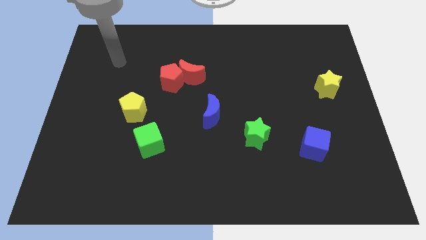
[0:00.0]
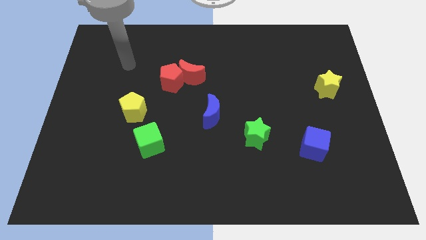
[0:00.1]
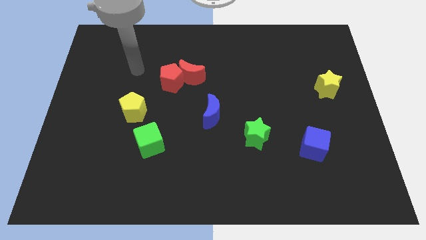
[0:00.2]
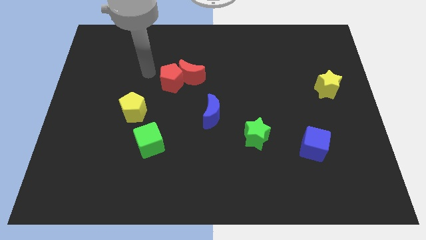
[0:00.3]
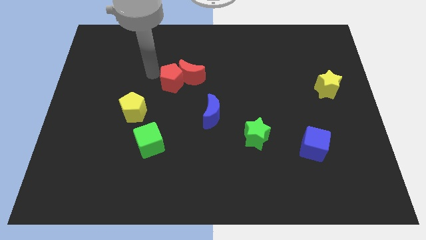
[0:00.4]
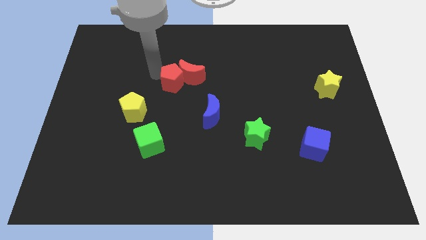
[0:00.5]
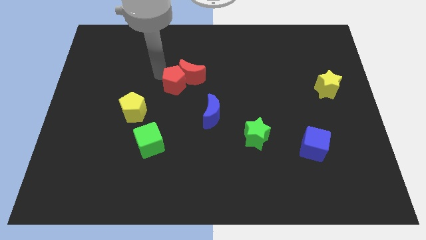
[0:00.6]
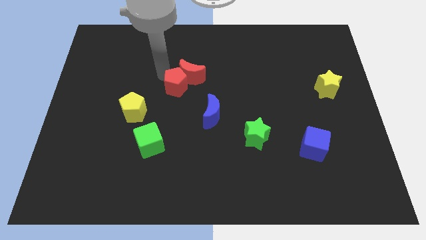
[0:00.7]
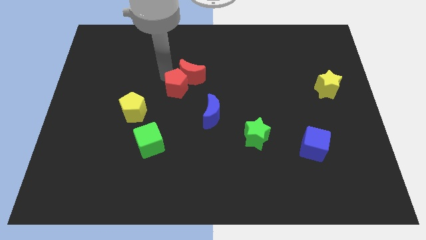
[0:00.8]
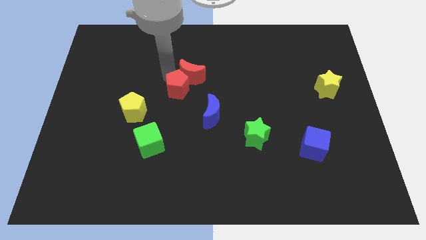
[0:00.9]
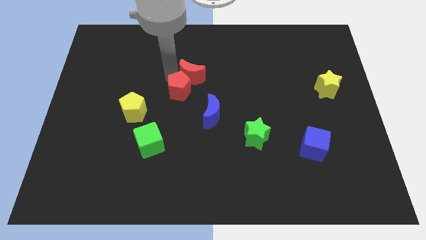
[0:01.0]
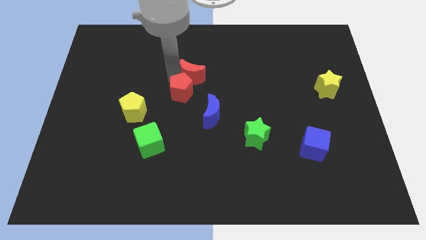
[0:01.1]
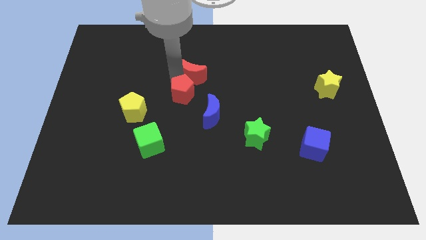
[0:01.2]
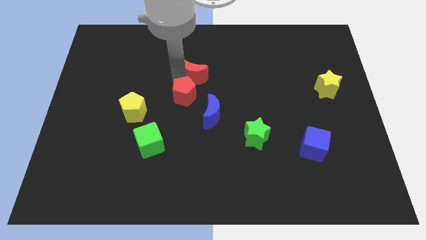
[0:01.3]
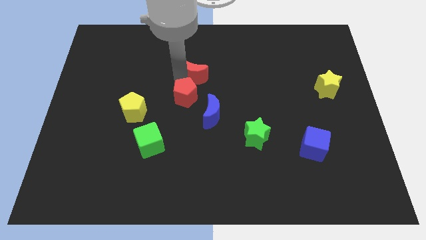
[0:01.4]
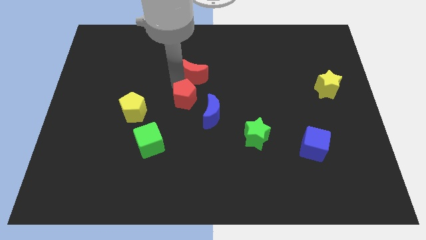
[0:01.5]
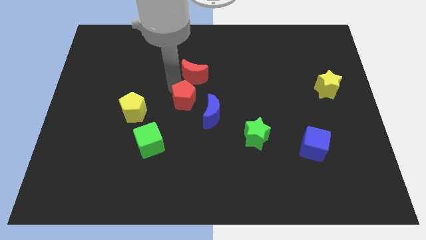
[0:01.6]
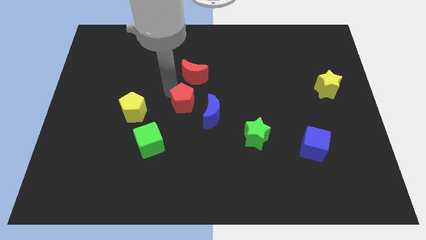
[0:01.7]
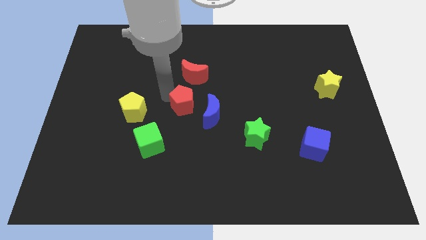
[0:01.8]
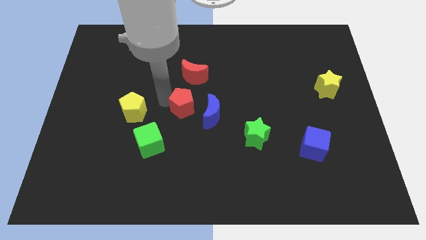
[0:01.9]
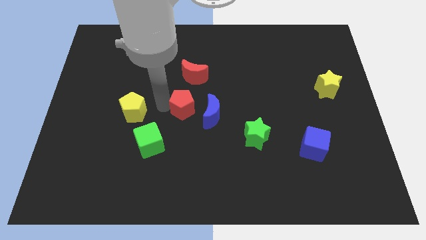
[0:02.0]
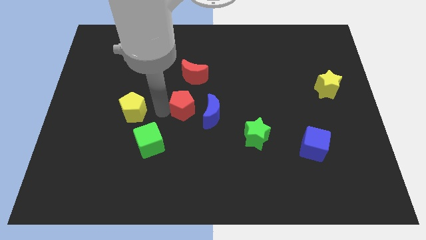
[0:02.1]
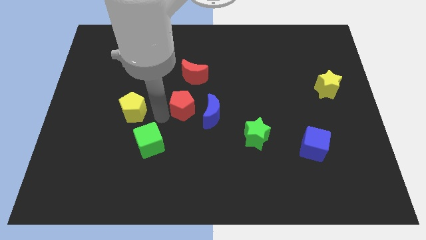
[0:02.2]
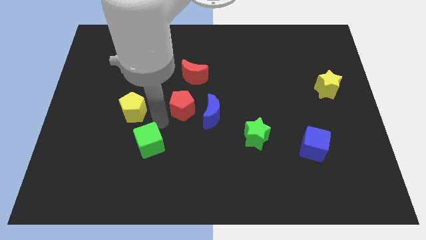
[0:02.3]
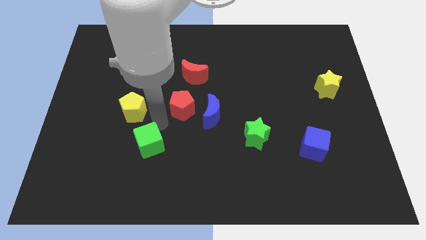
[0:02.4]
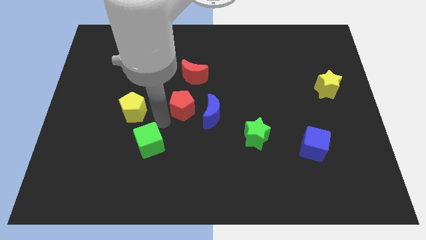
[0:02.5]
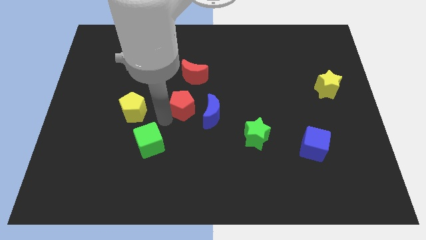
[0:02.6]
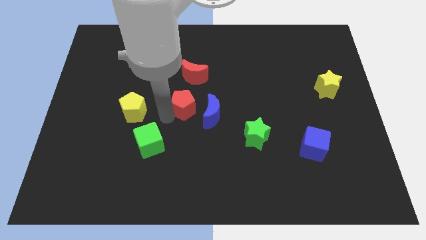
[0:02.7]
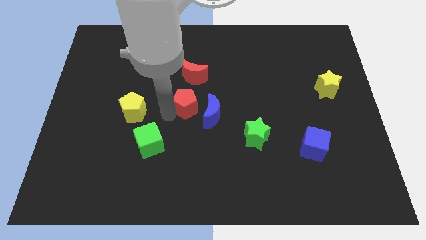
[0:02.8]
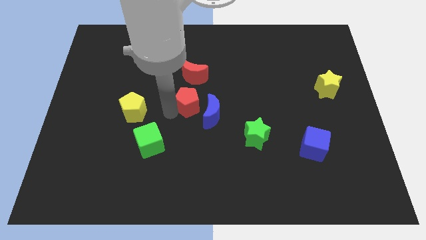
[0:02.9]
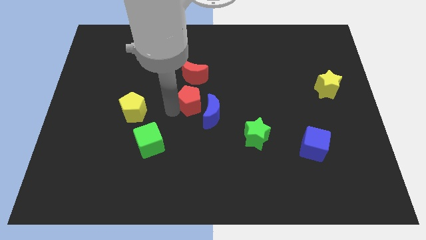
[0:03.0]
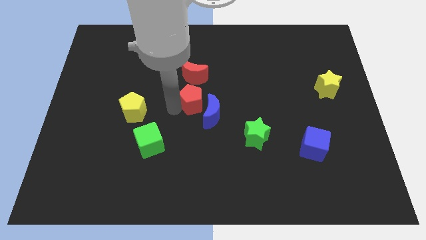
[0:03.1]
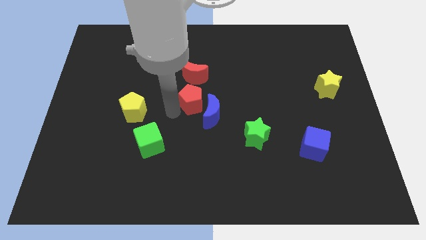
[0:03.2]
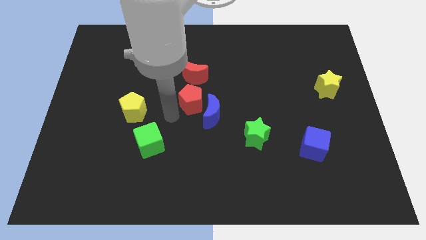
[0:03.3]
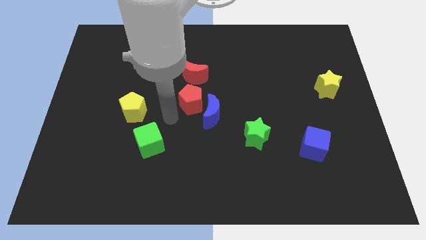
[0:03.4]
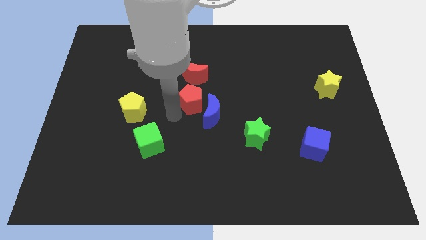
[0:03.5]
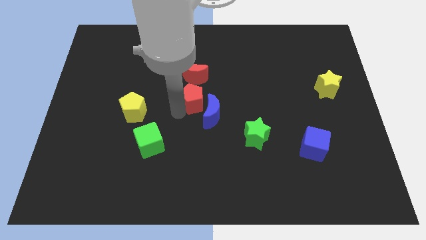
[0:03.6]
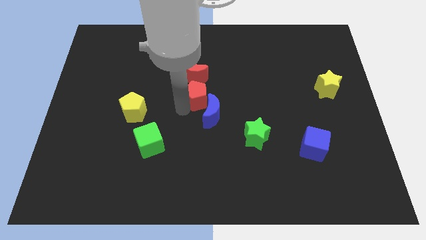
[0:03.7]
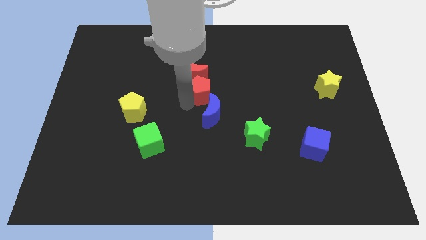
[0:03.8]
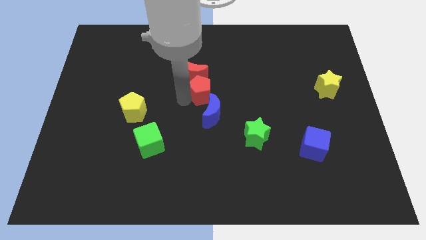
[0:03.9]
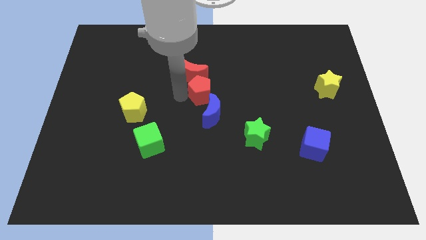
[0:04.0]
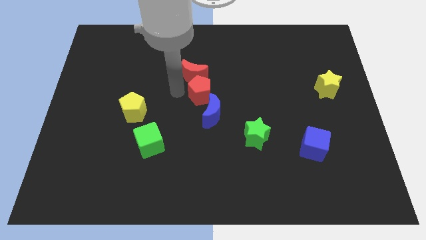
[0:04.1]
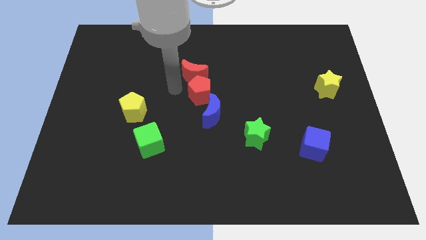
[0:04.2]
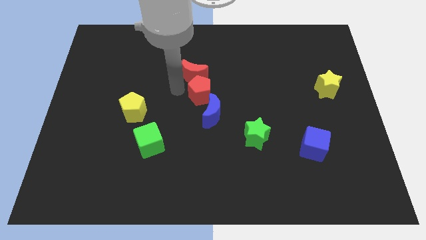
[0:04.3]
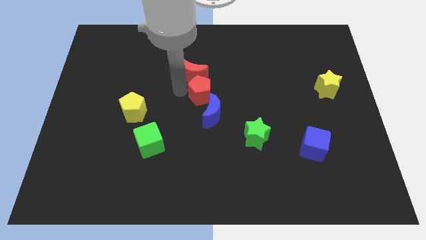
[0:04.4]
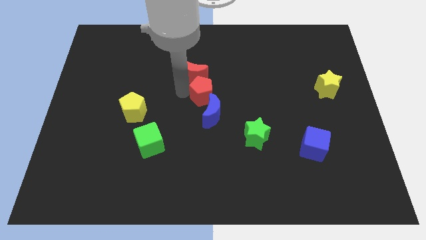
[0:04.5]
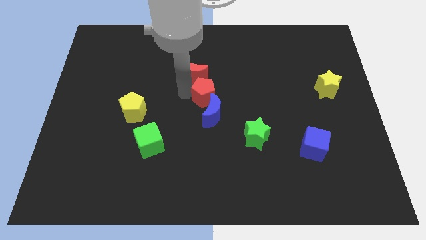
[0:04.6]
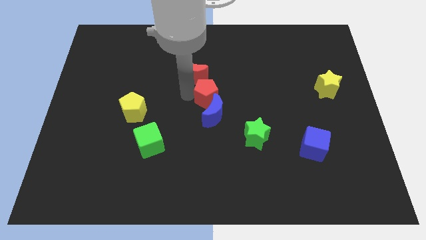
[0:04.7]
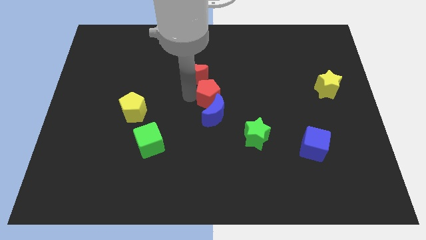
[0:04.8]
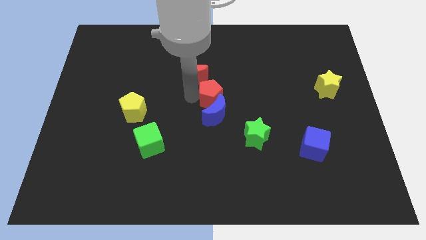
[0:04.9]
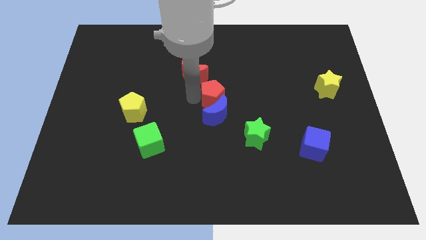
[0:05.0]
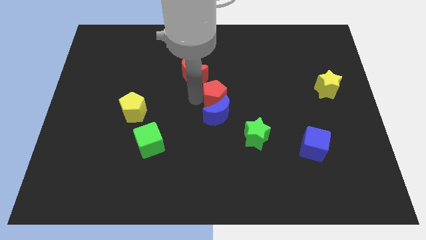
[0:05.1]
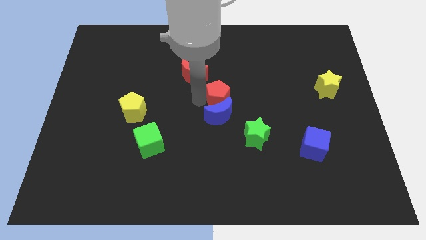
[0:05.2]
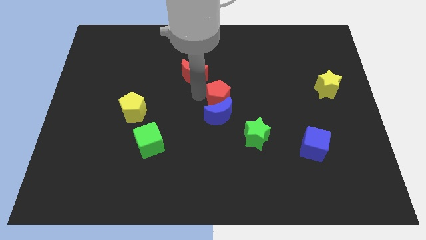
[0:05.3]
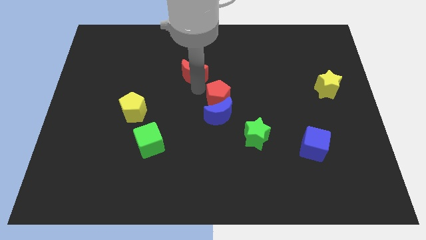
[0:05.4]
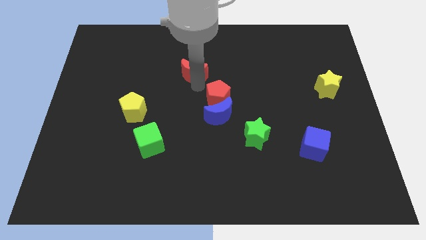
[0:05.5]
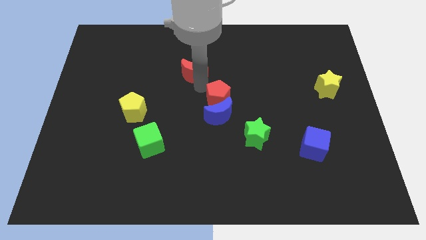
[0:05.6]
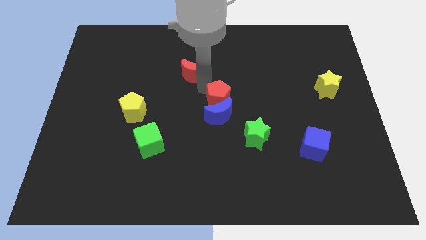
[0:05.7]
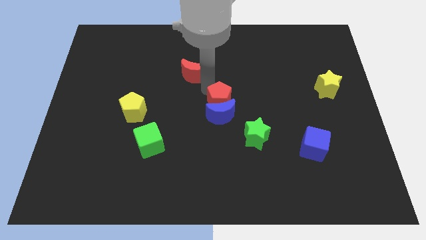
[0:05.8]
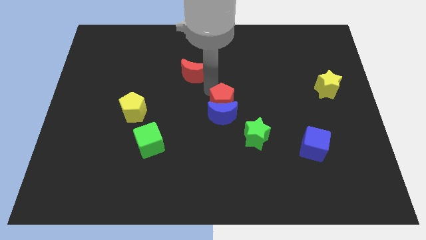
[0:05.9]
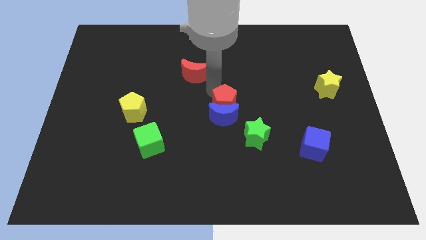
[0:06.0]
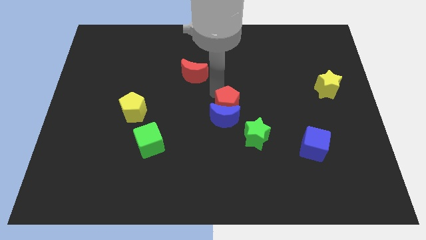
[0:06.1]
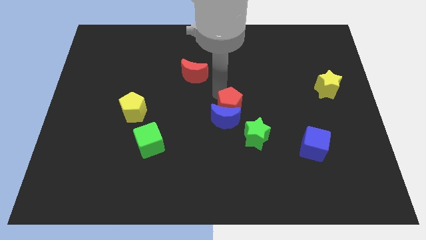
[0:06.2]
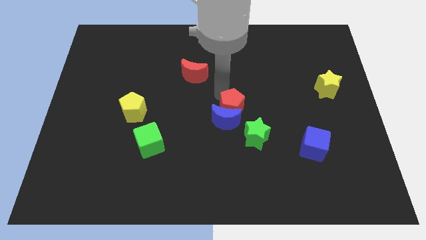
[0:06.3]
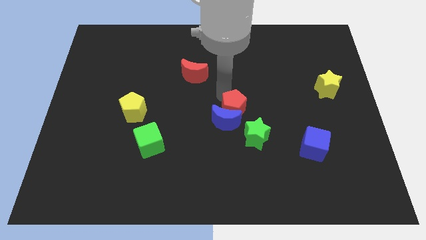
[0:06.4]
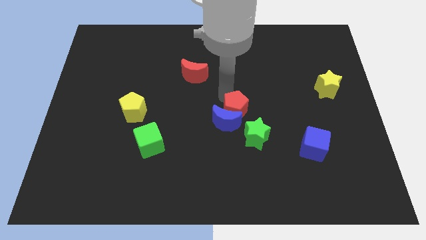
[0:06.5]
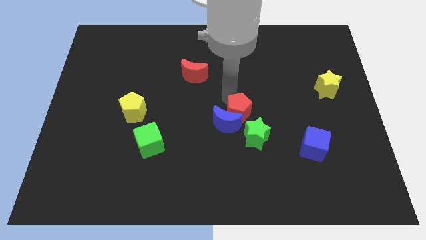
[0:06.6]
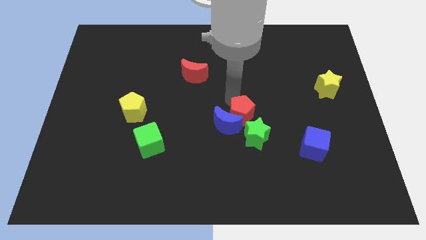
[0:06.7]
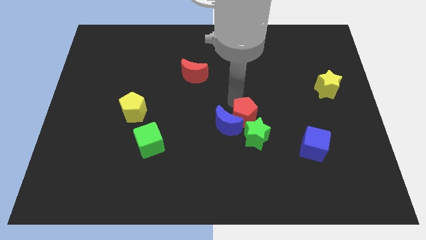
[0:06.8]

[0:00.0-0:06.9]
slide the red pentagon next to the green star
